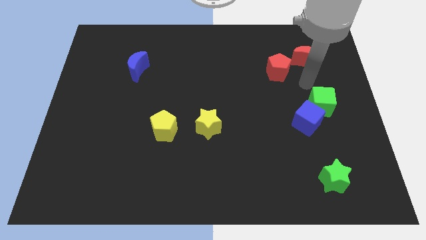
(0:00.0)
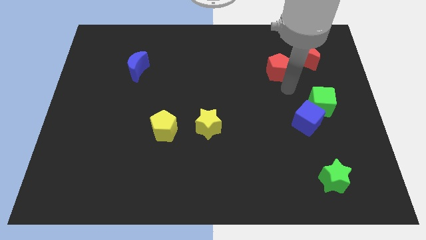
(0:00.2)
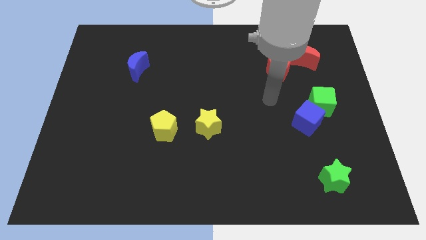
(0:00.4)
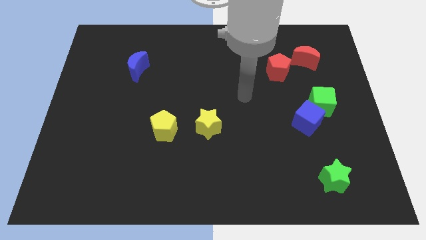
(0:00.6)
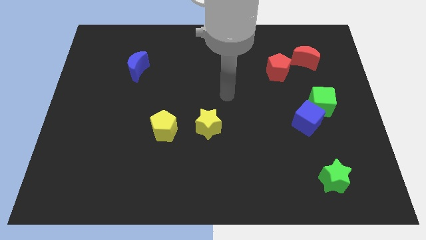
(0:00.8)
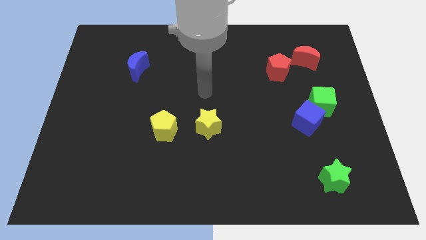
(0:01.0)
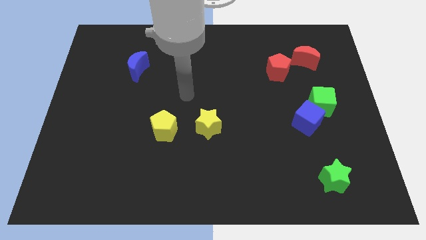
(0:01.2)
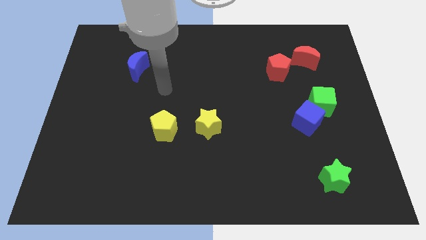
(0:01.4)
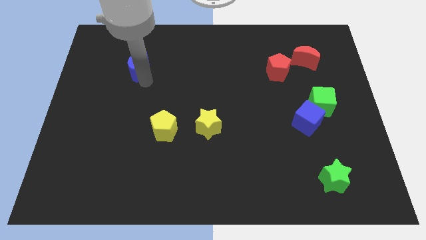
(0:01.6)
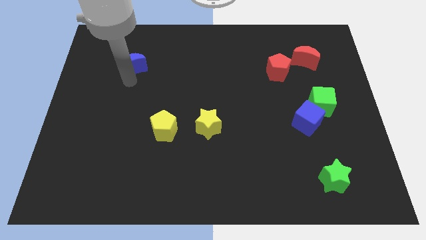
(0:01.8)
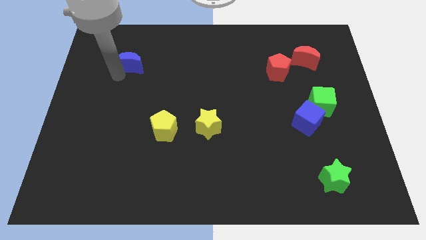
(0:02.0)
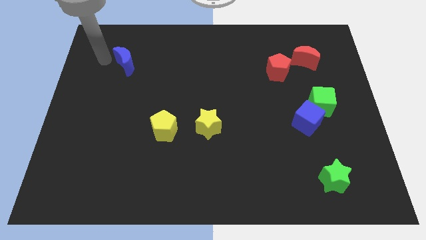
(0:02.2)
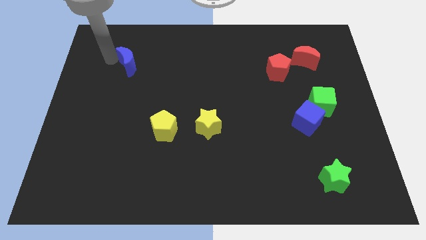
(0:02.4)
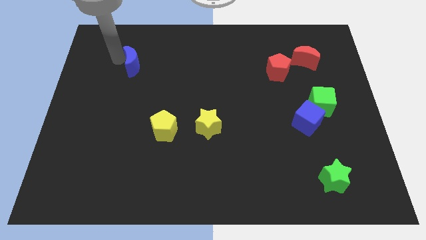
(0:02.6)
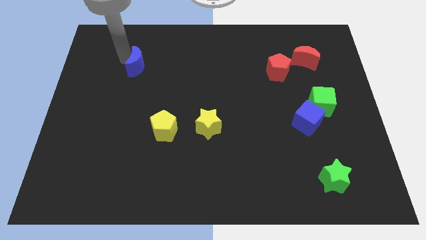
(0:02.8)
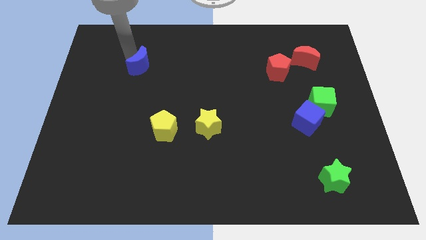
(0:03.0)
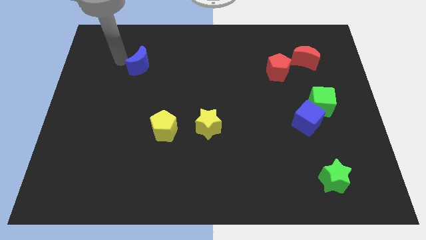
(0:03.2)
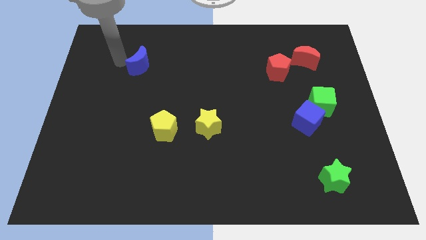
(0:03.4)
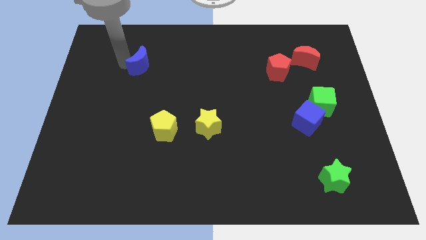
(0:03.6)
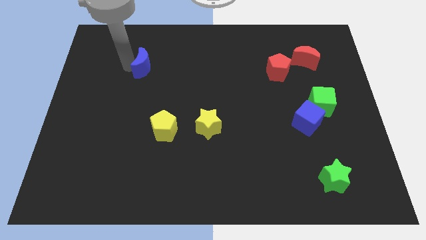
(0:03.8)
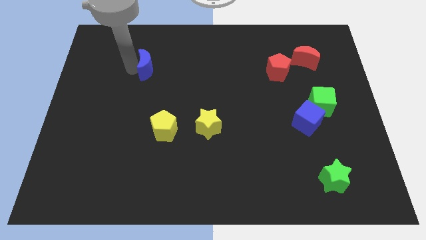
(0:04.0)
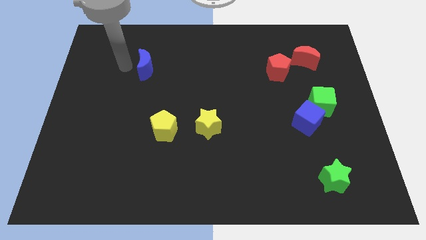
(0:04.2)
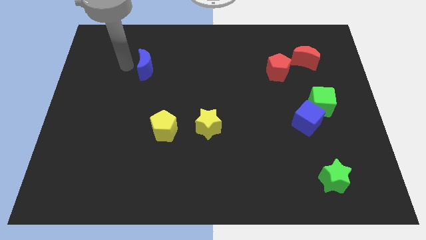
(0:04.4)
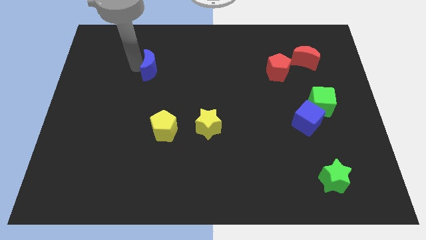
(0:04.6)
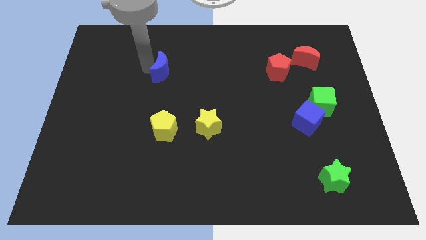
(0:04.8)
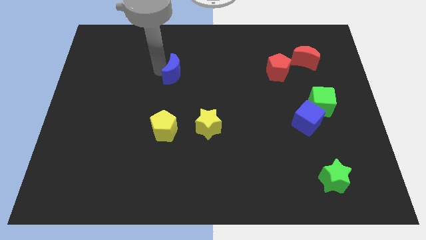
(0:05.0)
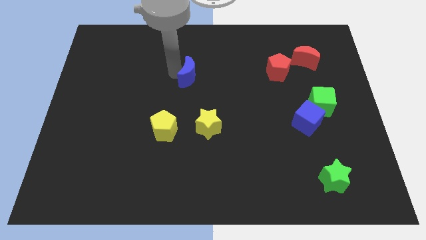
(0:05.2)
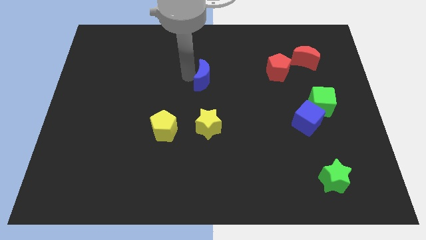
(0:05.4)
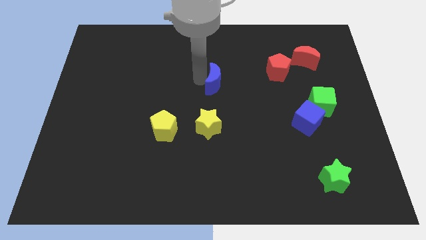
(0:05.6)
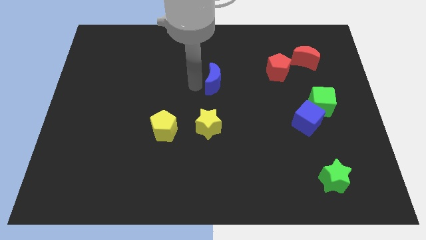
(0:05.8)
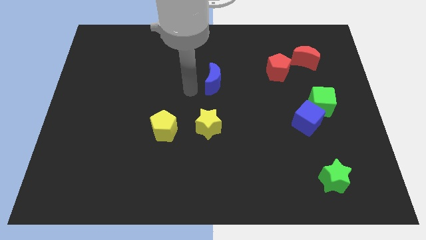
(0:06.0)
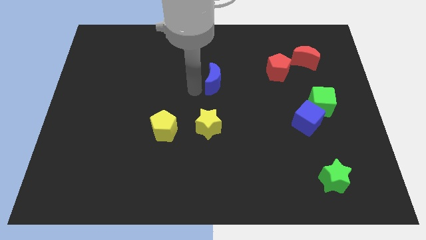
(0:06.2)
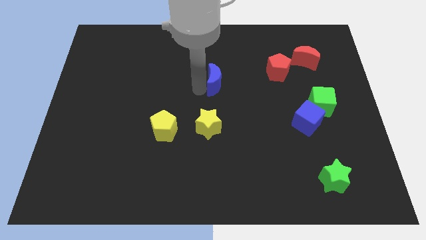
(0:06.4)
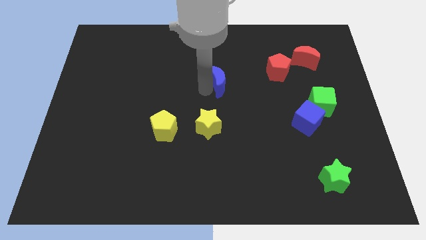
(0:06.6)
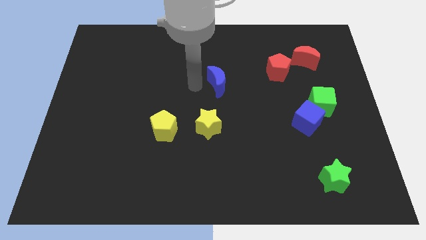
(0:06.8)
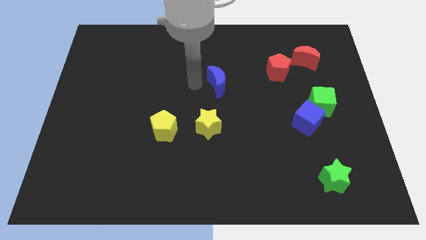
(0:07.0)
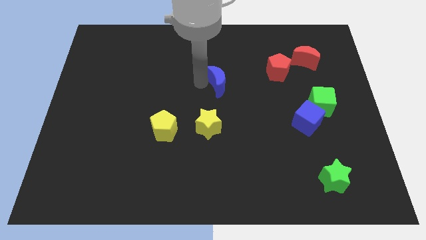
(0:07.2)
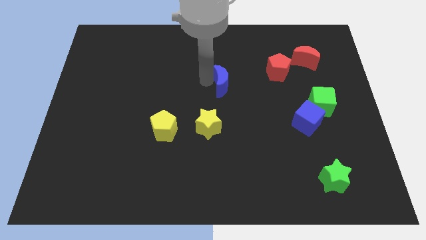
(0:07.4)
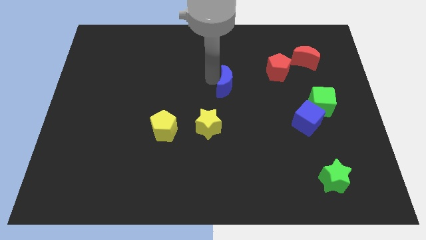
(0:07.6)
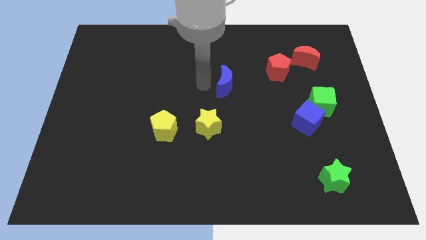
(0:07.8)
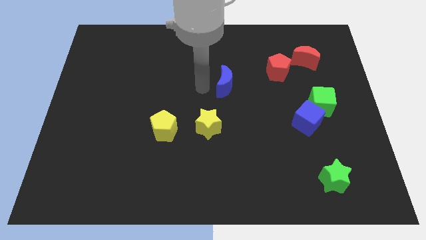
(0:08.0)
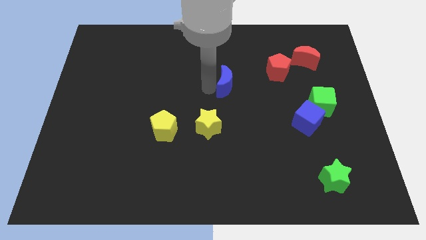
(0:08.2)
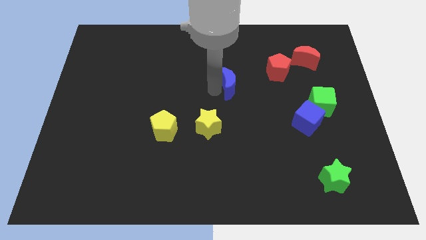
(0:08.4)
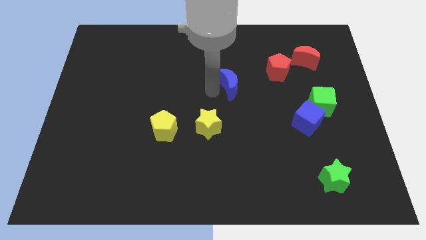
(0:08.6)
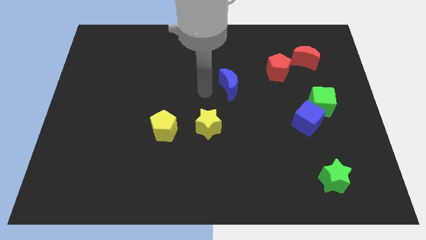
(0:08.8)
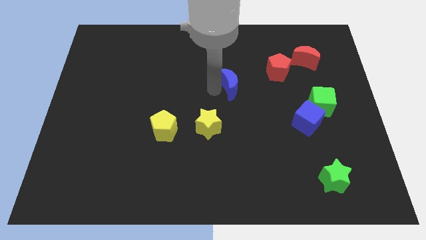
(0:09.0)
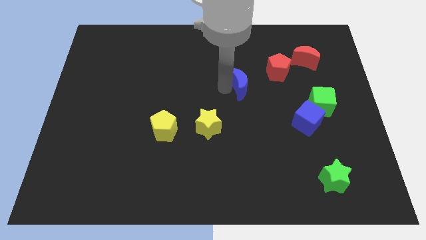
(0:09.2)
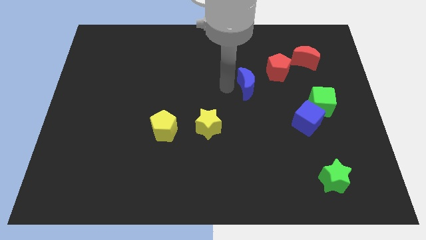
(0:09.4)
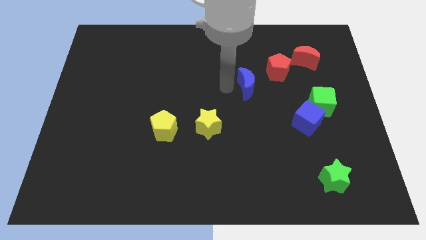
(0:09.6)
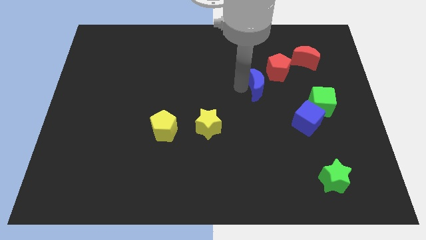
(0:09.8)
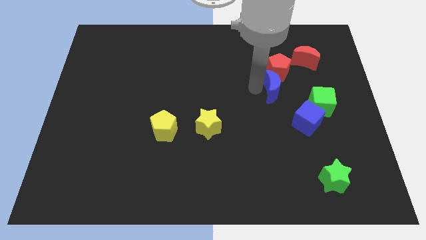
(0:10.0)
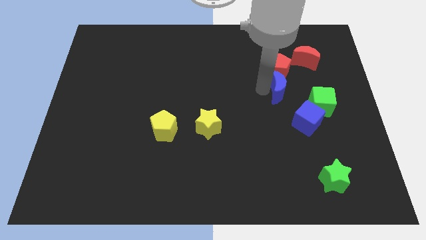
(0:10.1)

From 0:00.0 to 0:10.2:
push the blue moon diagonally down and to the right of the red pentagon

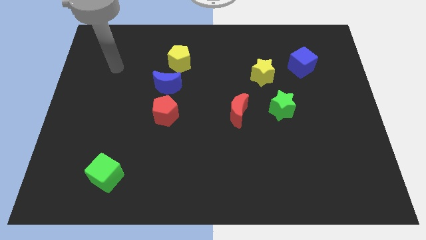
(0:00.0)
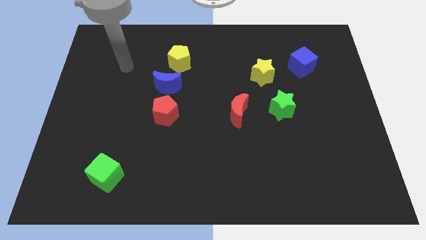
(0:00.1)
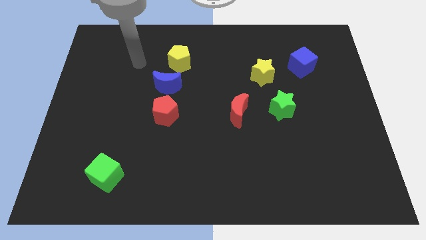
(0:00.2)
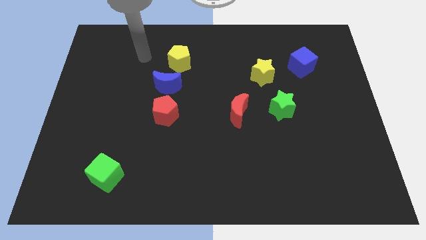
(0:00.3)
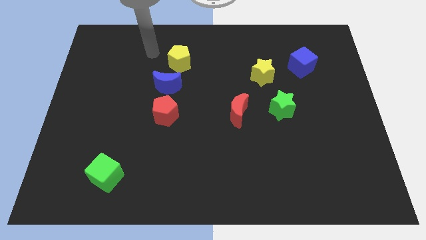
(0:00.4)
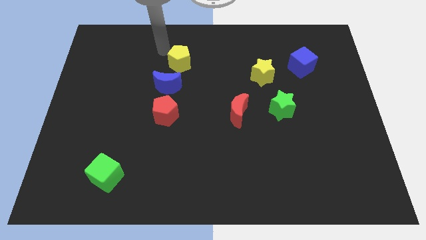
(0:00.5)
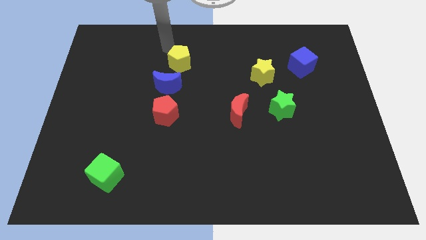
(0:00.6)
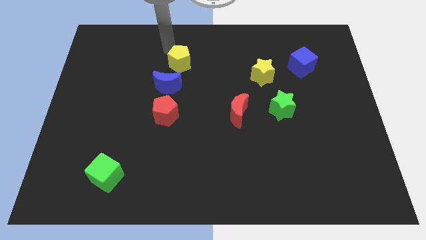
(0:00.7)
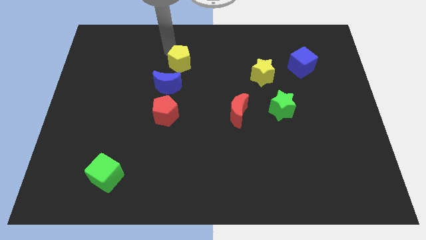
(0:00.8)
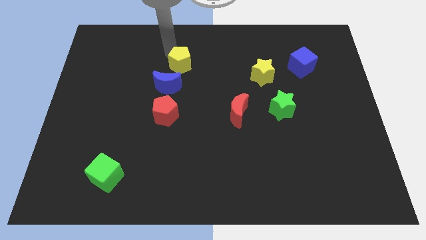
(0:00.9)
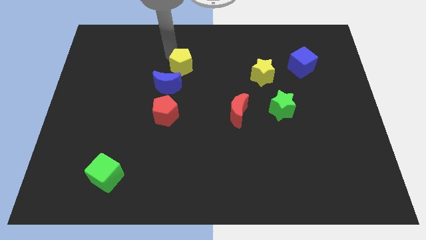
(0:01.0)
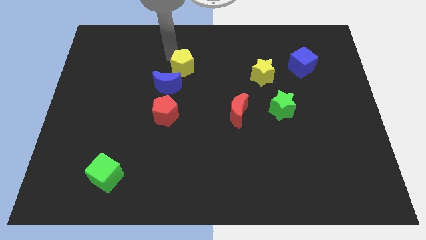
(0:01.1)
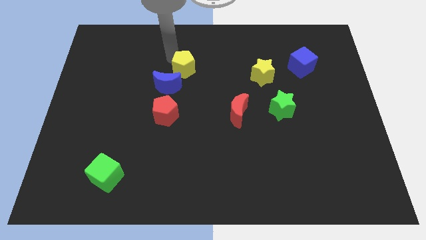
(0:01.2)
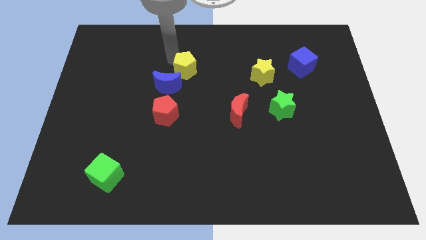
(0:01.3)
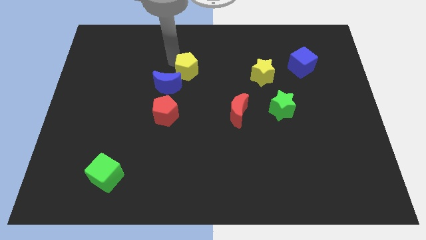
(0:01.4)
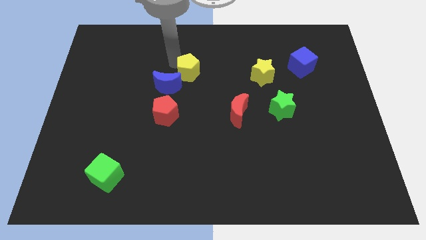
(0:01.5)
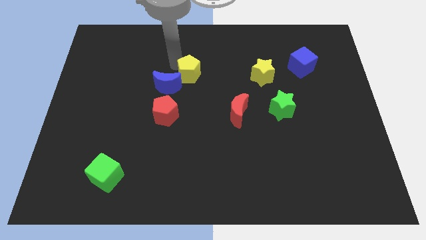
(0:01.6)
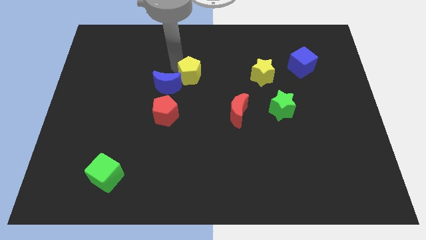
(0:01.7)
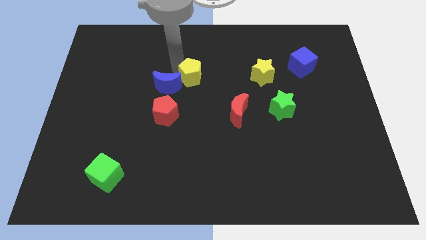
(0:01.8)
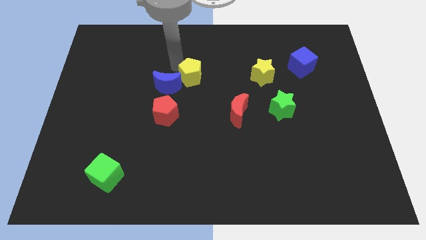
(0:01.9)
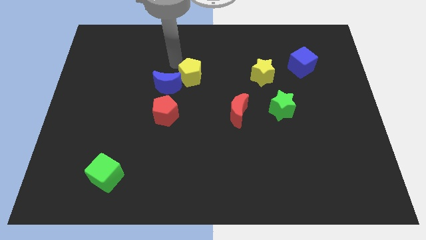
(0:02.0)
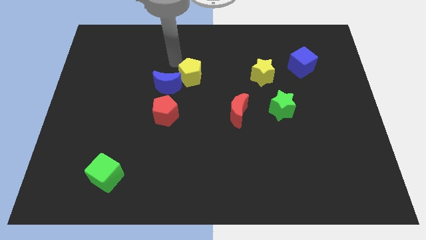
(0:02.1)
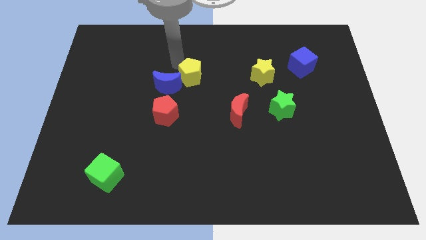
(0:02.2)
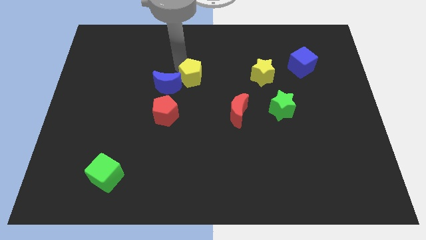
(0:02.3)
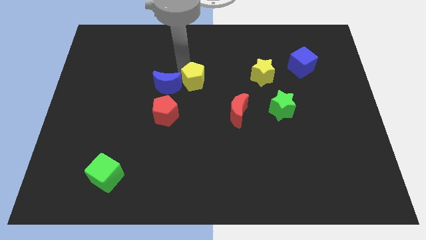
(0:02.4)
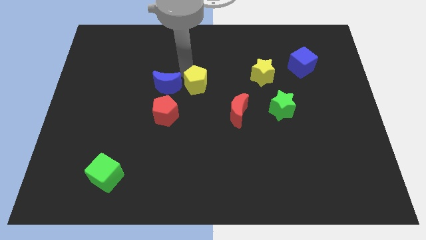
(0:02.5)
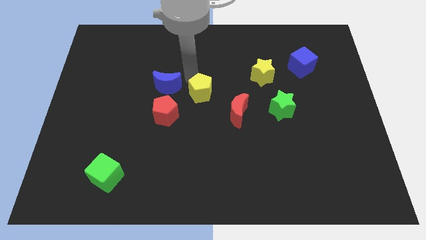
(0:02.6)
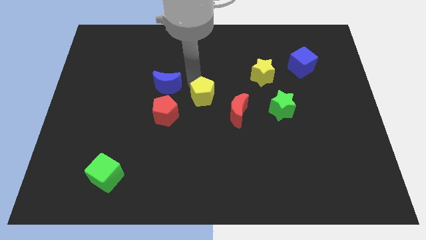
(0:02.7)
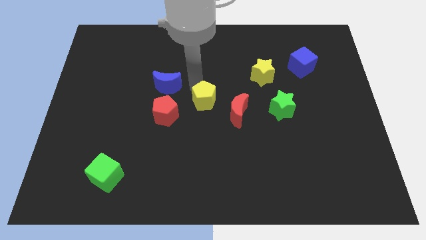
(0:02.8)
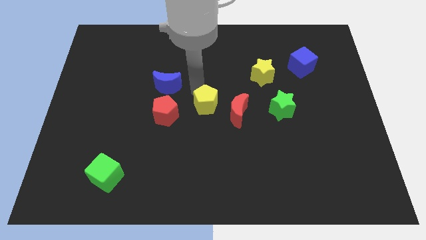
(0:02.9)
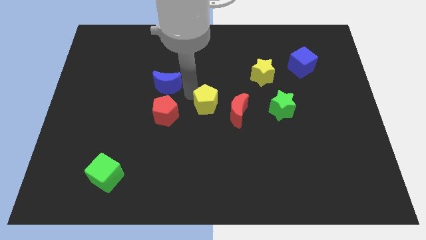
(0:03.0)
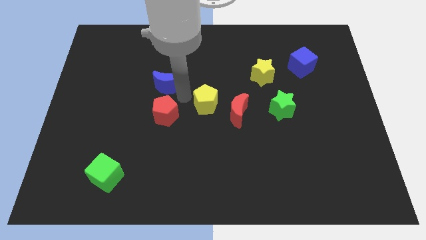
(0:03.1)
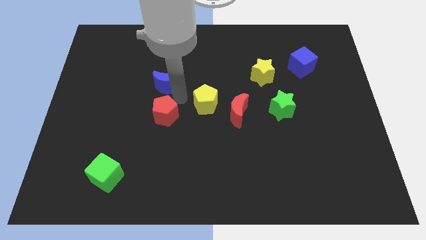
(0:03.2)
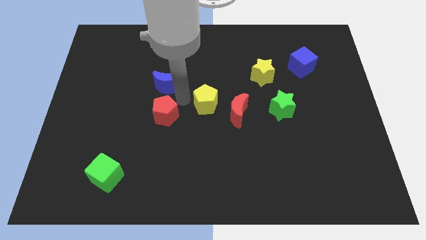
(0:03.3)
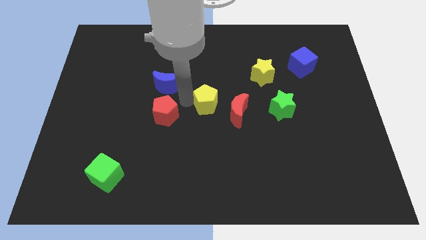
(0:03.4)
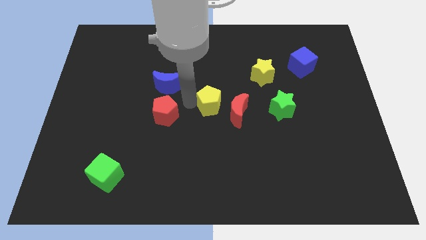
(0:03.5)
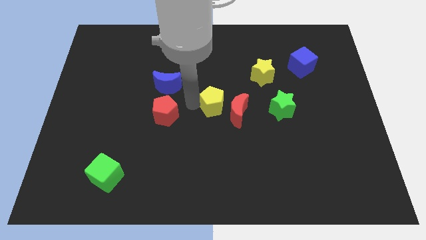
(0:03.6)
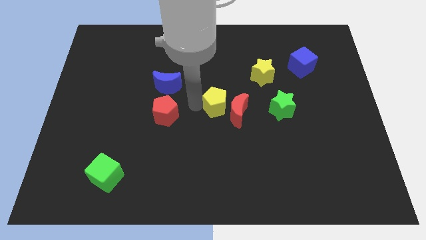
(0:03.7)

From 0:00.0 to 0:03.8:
put the yellow pentagon left of the green star
